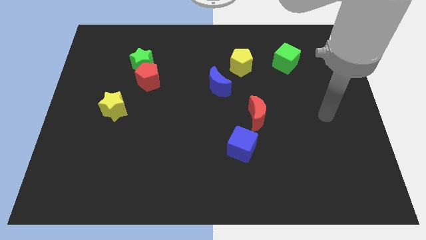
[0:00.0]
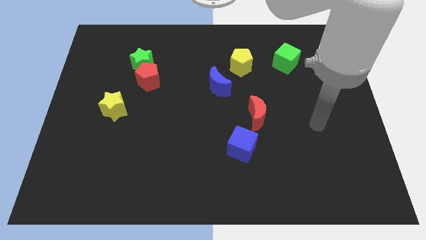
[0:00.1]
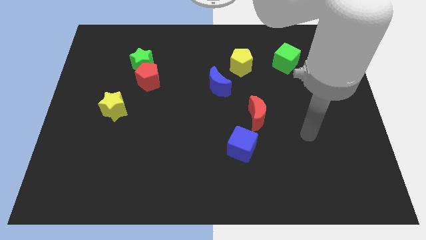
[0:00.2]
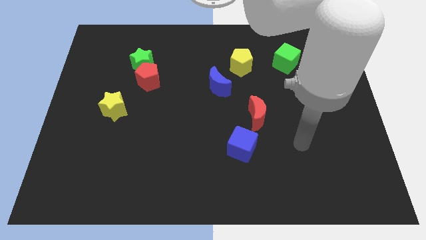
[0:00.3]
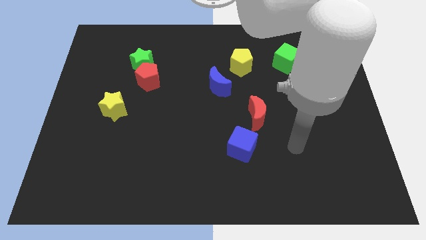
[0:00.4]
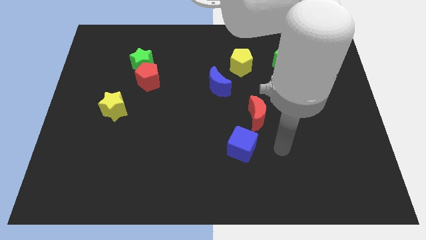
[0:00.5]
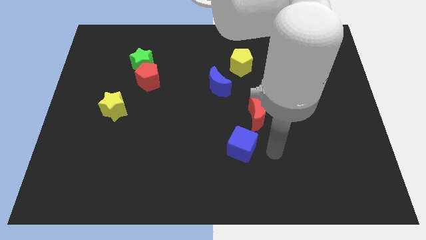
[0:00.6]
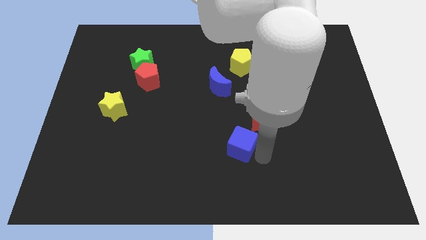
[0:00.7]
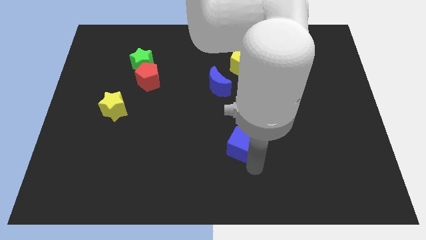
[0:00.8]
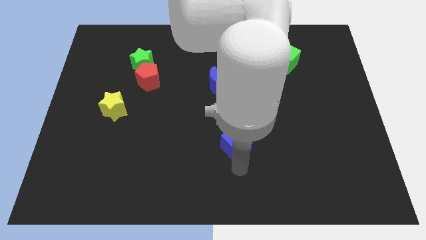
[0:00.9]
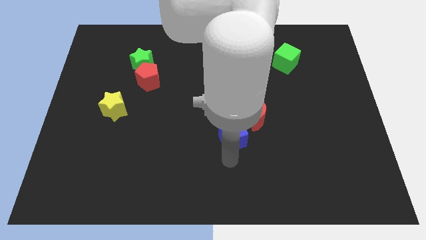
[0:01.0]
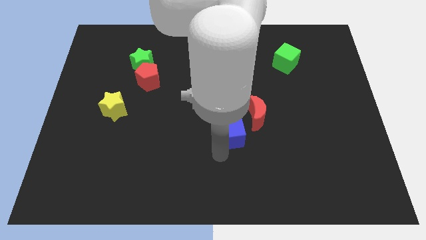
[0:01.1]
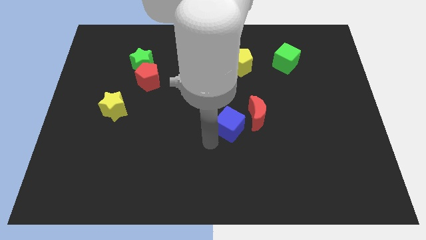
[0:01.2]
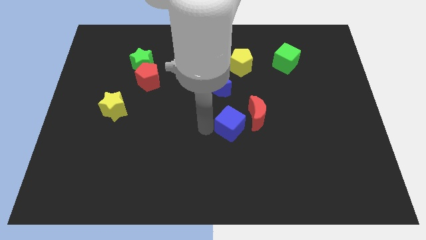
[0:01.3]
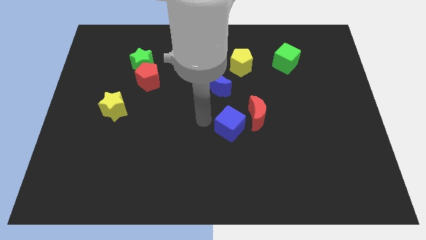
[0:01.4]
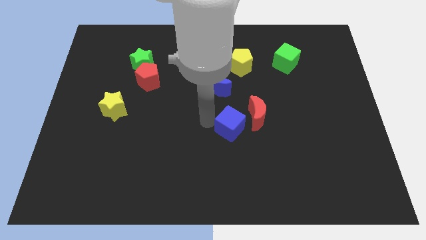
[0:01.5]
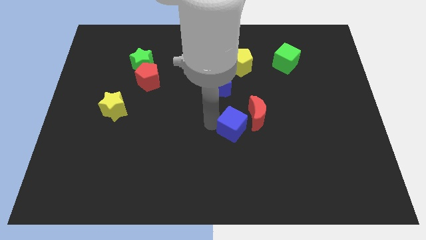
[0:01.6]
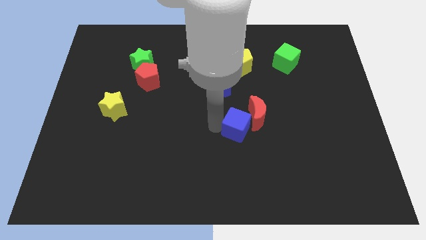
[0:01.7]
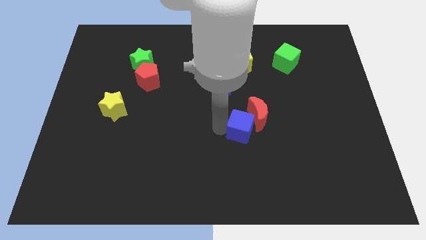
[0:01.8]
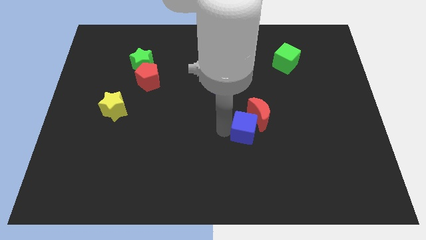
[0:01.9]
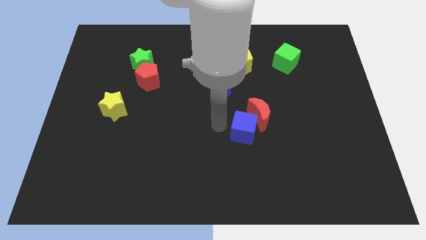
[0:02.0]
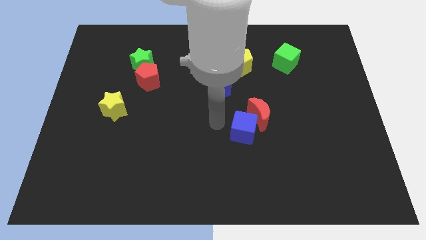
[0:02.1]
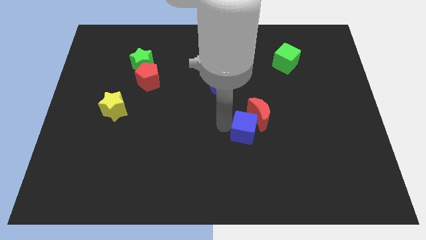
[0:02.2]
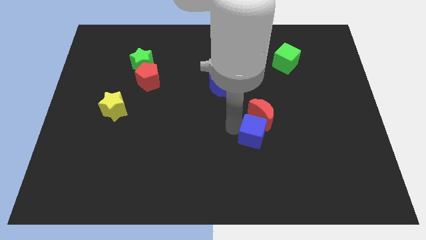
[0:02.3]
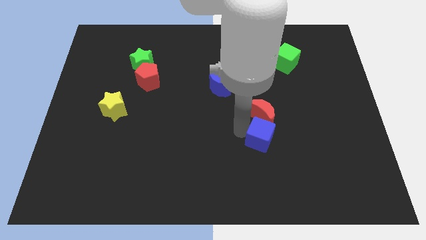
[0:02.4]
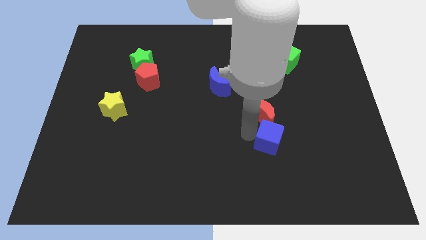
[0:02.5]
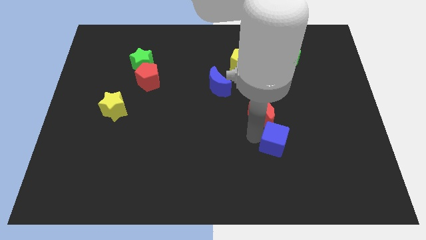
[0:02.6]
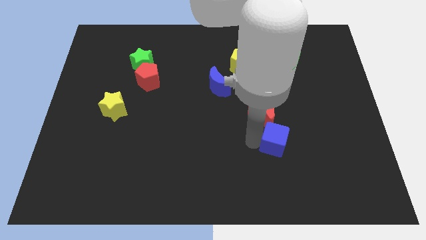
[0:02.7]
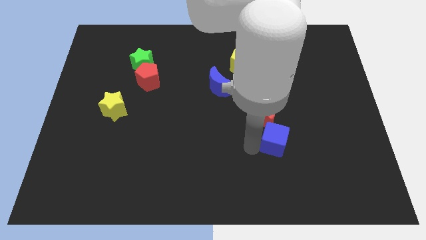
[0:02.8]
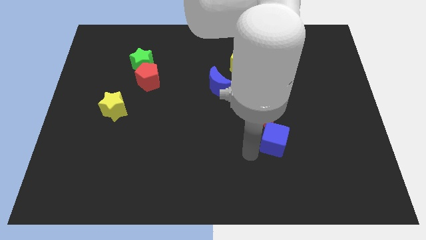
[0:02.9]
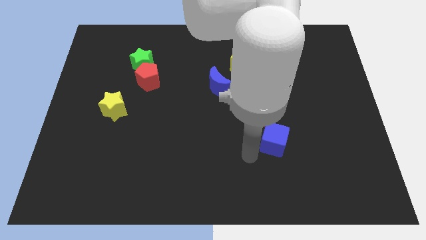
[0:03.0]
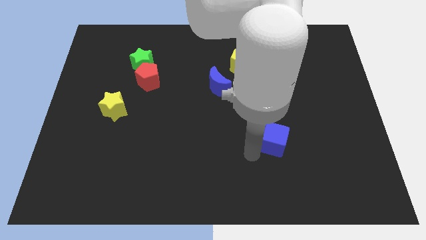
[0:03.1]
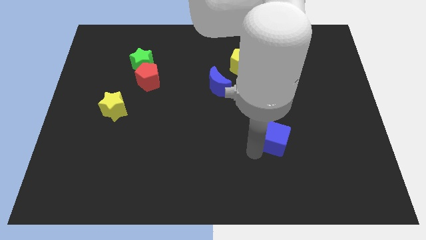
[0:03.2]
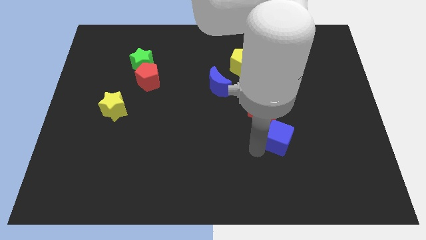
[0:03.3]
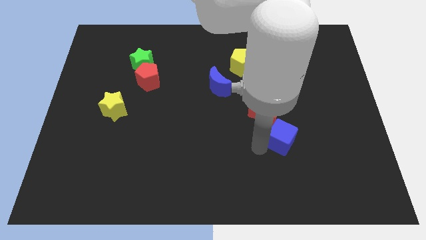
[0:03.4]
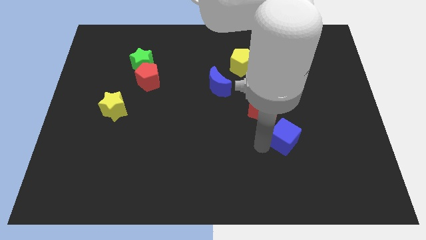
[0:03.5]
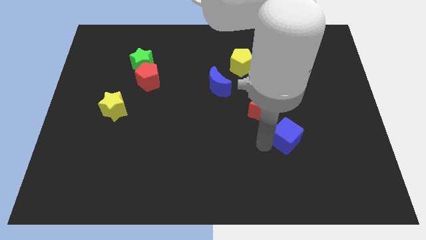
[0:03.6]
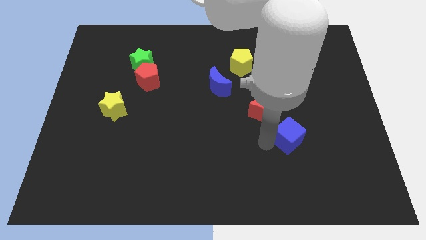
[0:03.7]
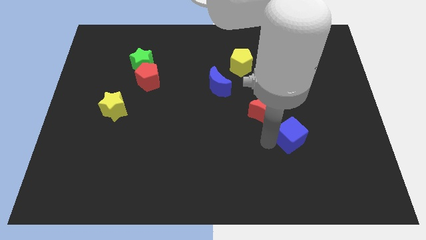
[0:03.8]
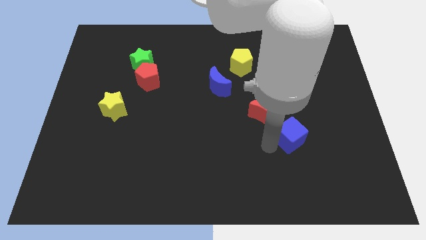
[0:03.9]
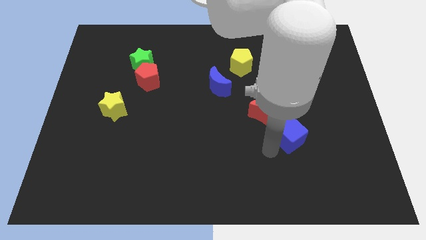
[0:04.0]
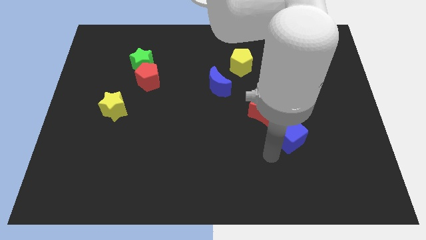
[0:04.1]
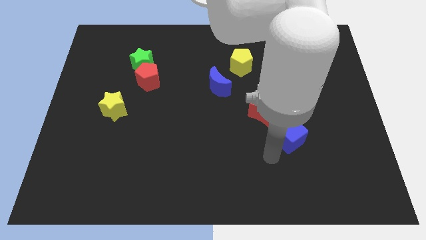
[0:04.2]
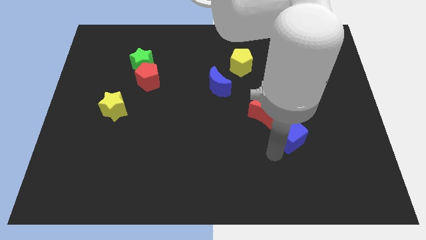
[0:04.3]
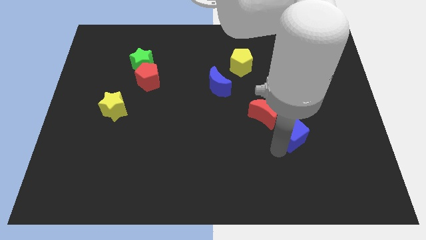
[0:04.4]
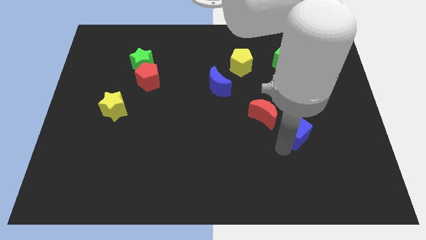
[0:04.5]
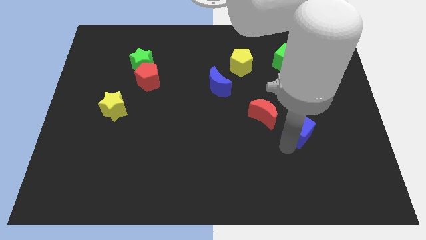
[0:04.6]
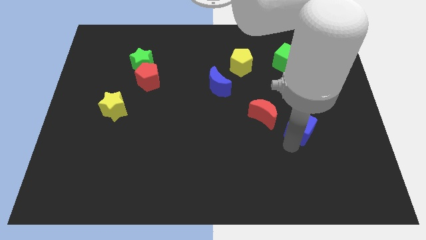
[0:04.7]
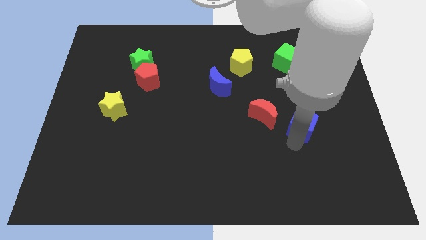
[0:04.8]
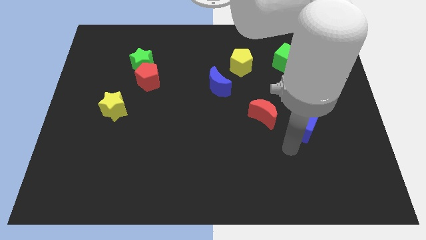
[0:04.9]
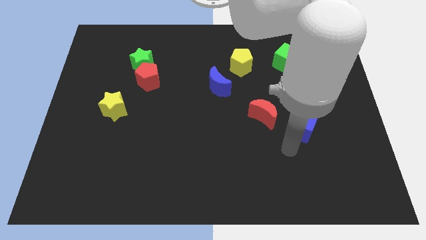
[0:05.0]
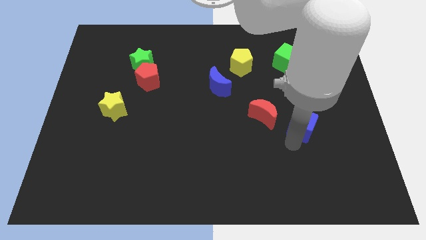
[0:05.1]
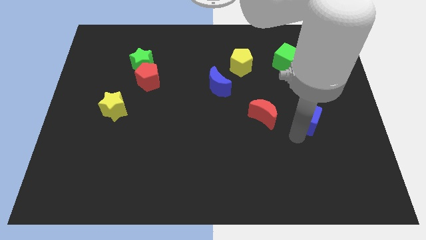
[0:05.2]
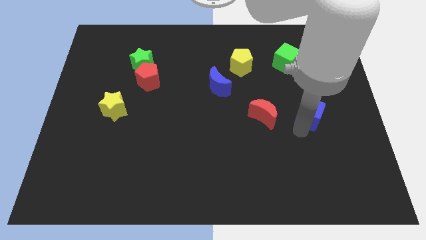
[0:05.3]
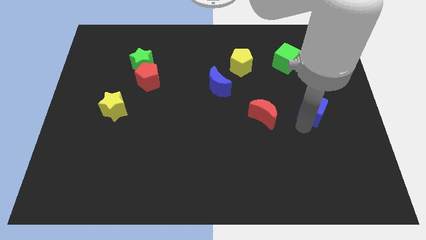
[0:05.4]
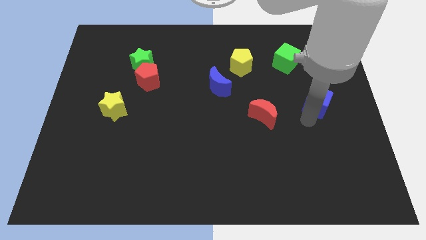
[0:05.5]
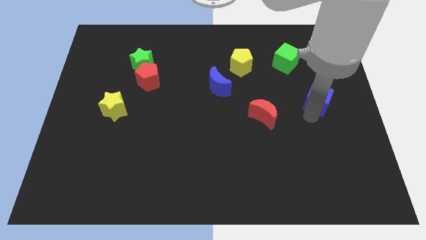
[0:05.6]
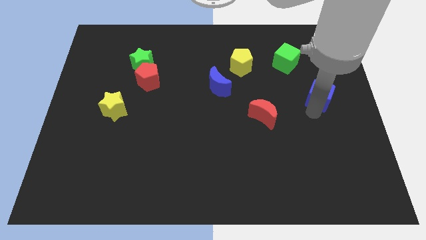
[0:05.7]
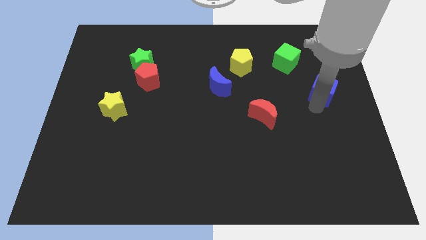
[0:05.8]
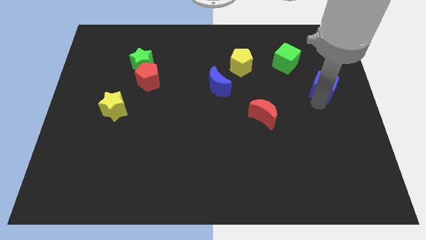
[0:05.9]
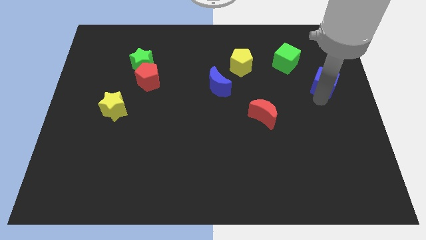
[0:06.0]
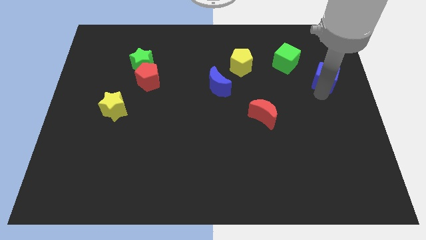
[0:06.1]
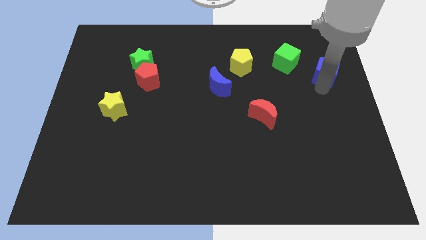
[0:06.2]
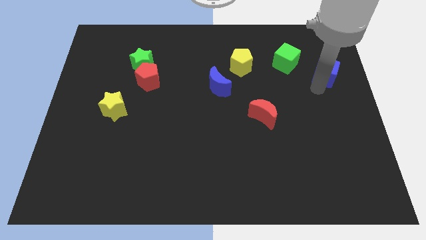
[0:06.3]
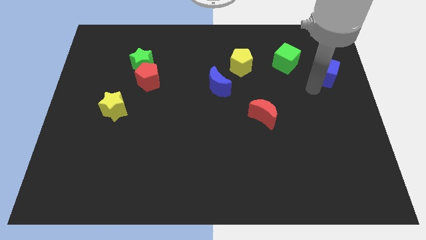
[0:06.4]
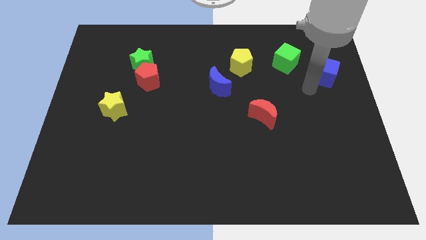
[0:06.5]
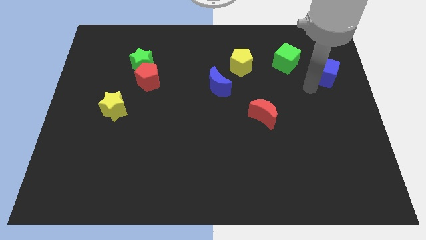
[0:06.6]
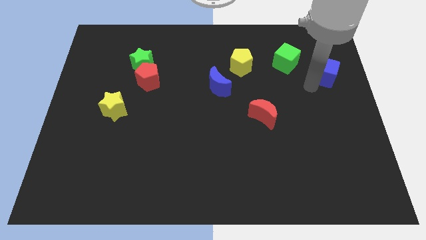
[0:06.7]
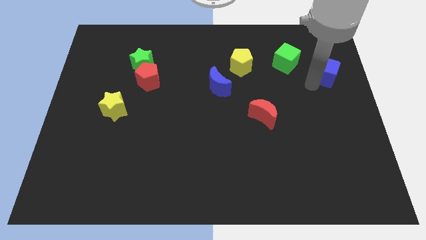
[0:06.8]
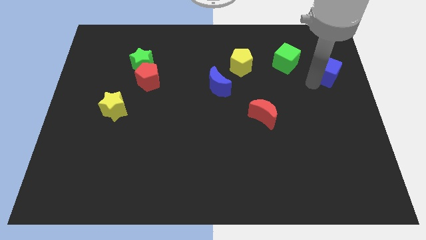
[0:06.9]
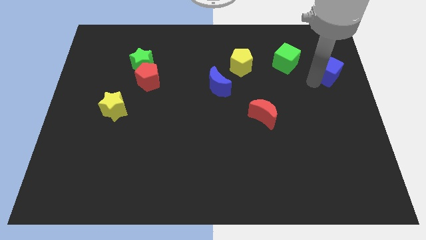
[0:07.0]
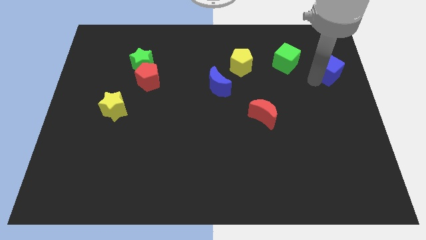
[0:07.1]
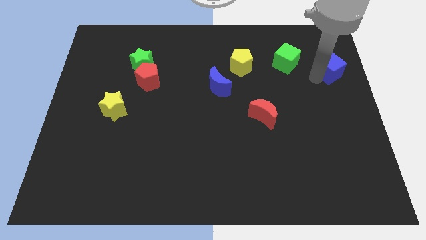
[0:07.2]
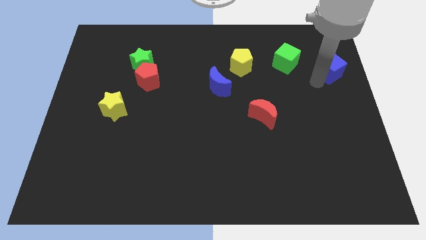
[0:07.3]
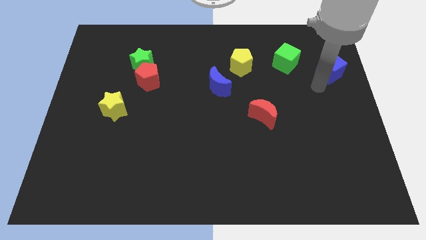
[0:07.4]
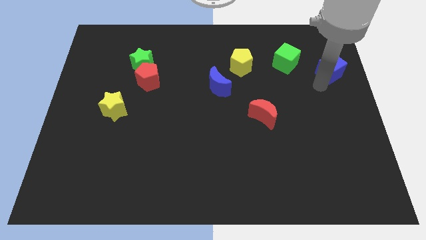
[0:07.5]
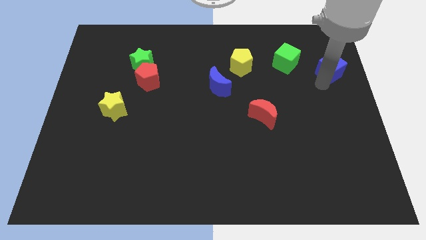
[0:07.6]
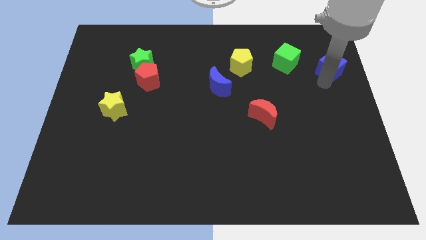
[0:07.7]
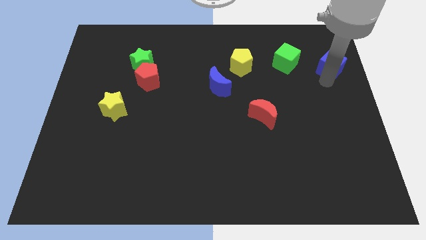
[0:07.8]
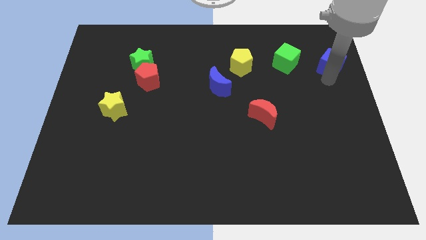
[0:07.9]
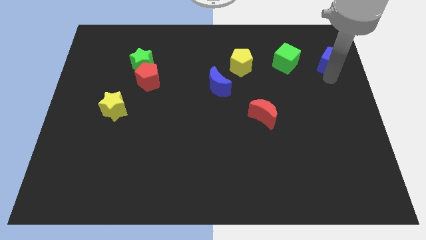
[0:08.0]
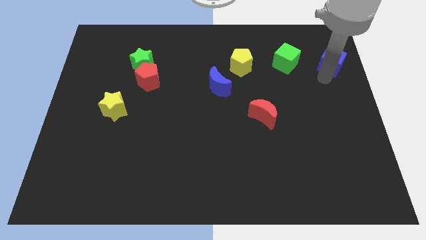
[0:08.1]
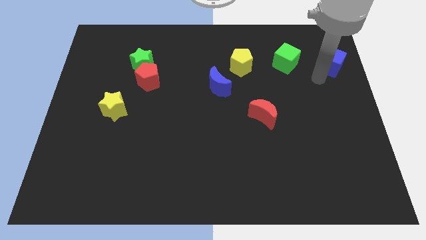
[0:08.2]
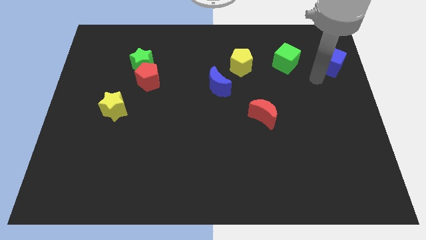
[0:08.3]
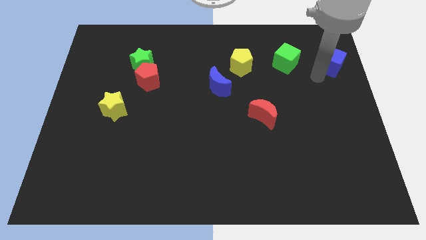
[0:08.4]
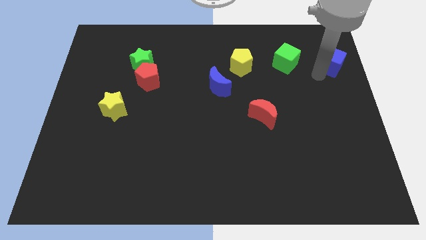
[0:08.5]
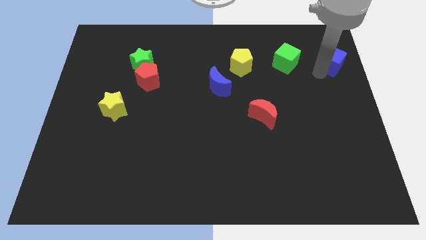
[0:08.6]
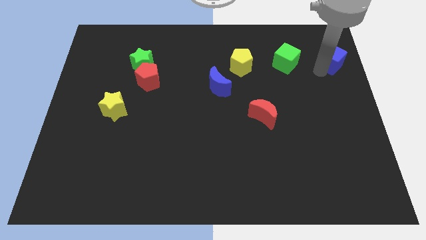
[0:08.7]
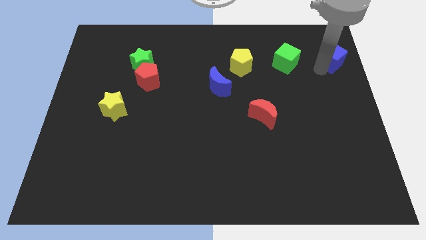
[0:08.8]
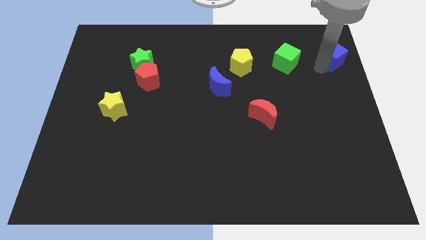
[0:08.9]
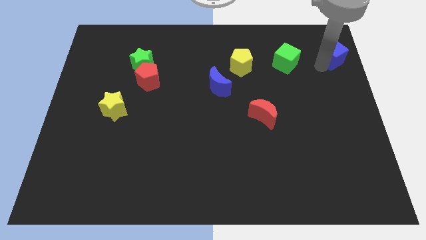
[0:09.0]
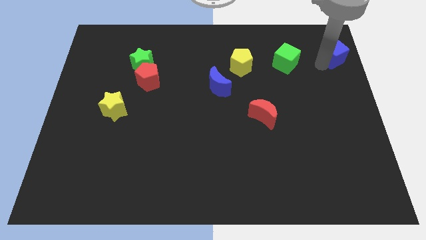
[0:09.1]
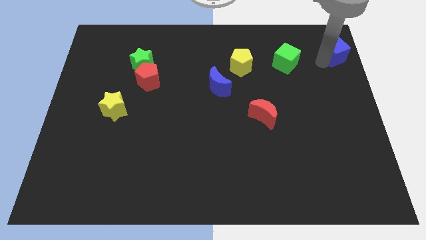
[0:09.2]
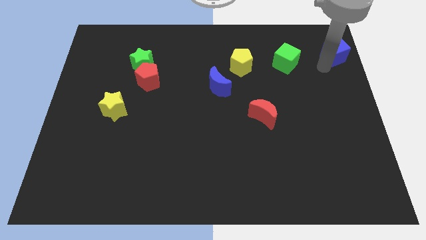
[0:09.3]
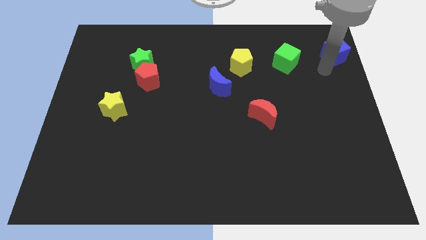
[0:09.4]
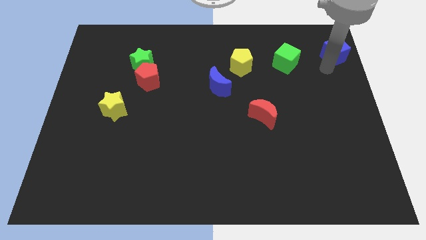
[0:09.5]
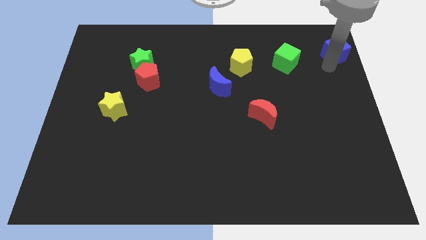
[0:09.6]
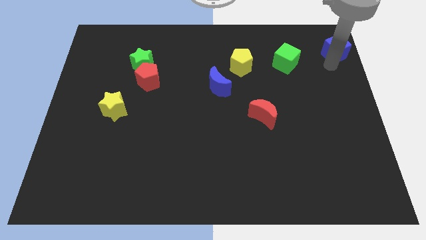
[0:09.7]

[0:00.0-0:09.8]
put the blue cube to the top right
